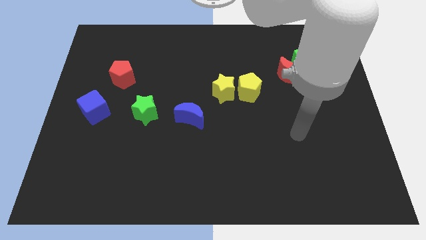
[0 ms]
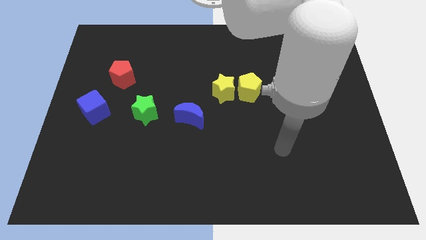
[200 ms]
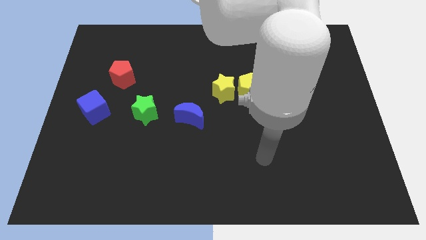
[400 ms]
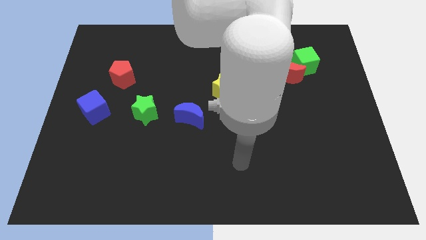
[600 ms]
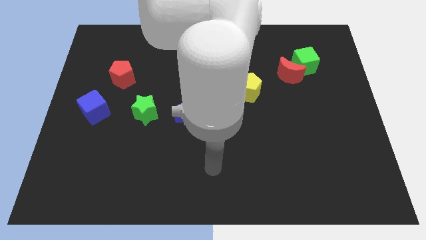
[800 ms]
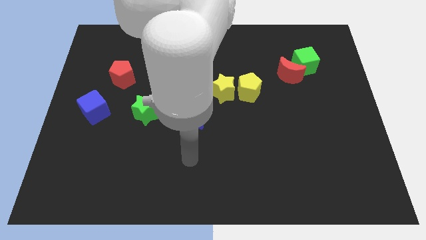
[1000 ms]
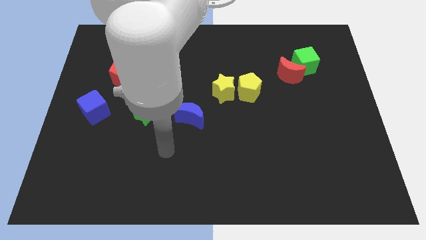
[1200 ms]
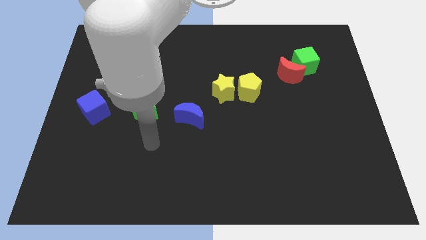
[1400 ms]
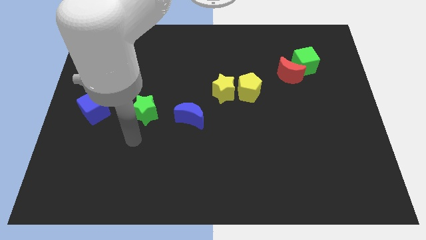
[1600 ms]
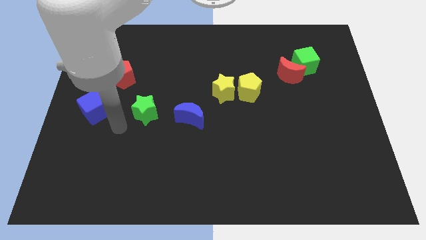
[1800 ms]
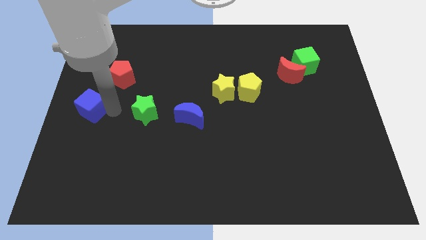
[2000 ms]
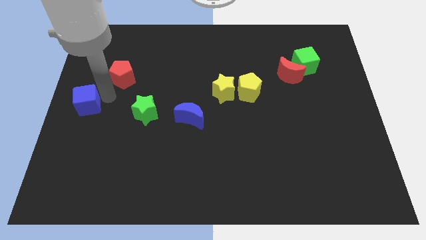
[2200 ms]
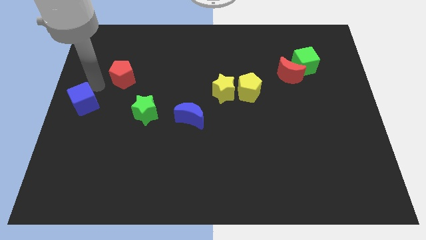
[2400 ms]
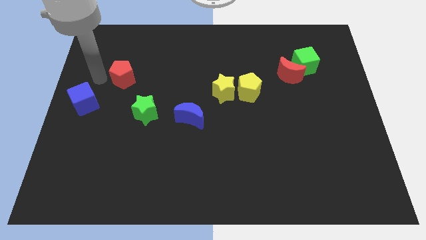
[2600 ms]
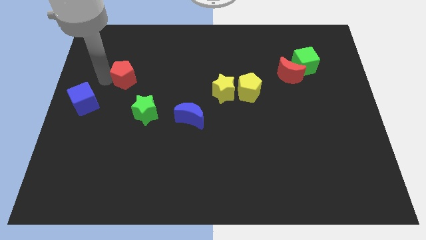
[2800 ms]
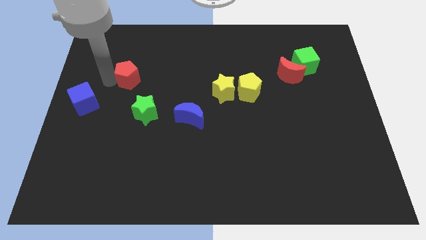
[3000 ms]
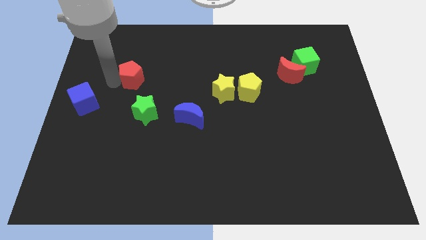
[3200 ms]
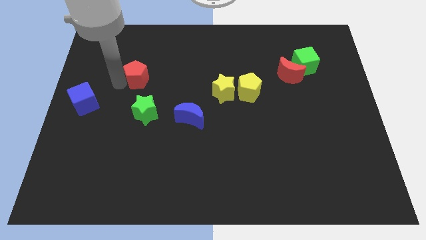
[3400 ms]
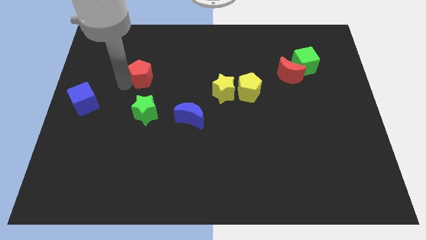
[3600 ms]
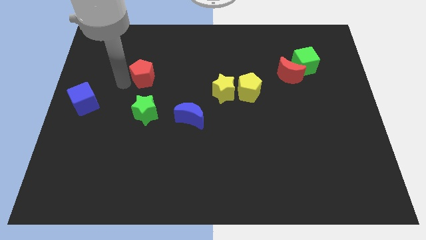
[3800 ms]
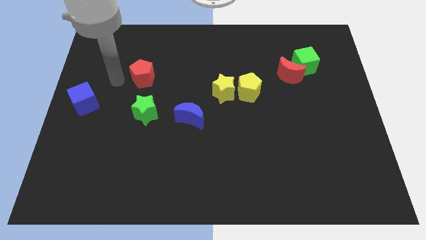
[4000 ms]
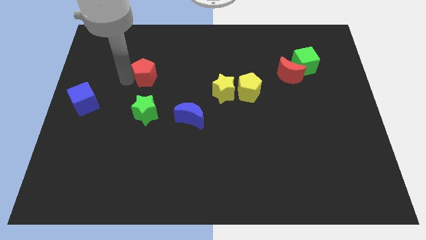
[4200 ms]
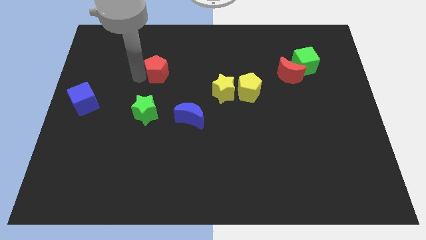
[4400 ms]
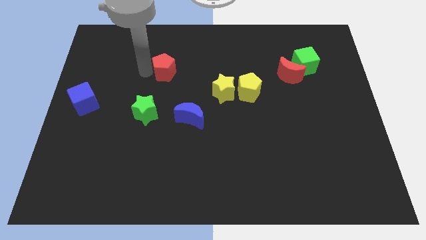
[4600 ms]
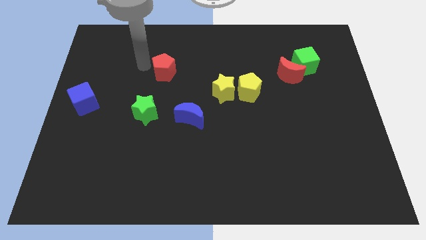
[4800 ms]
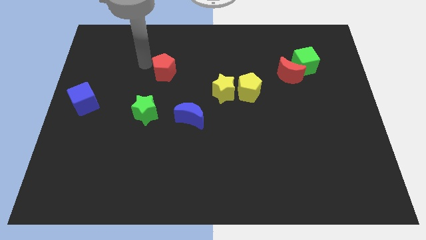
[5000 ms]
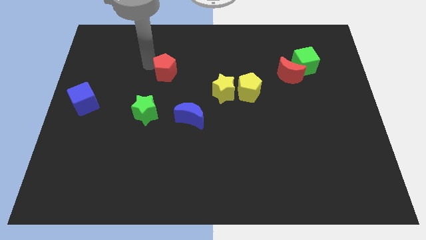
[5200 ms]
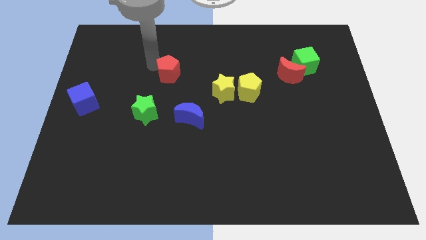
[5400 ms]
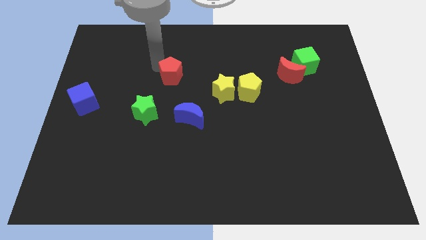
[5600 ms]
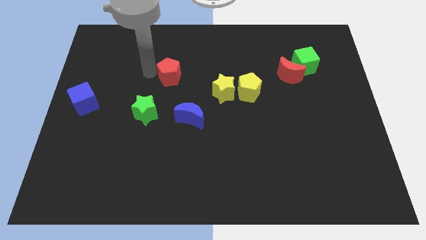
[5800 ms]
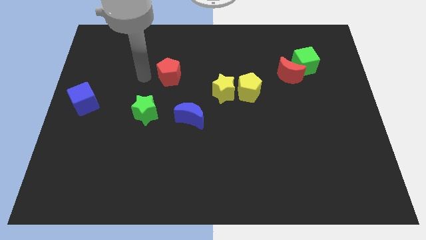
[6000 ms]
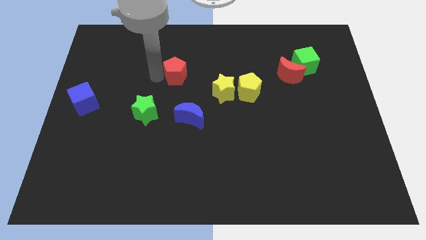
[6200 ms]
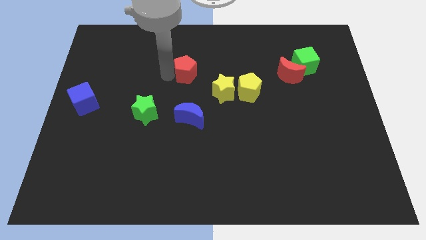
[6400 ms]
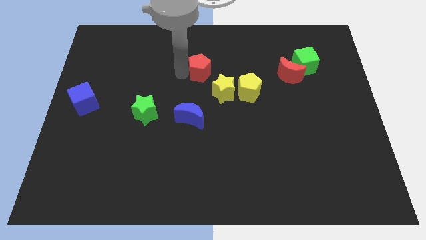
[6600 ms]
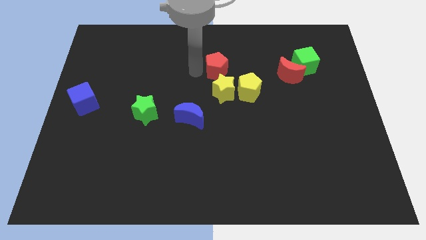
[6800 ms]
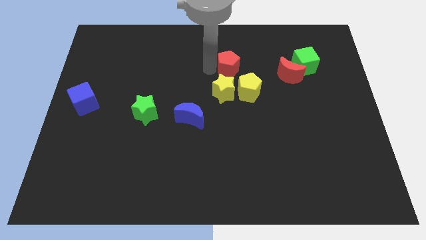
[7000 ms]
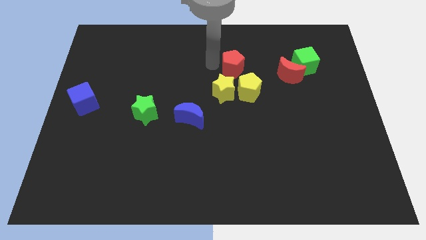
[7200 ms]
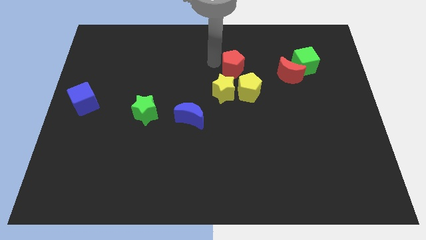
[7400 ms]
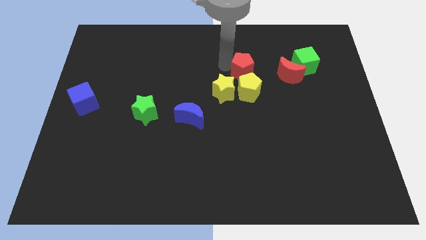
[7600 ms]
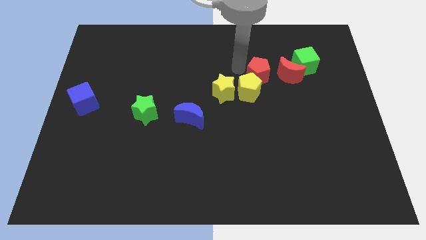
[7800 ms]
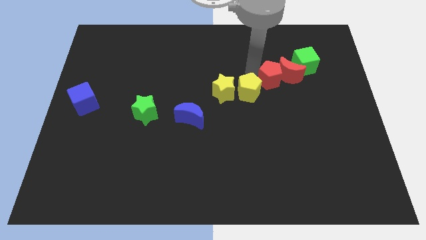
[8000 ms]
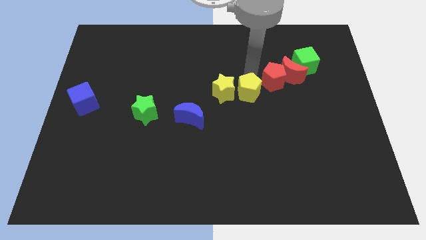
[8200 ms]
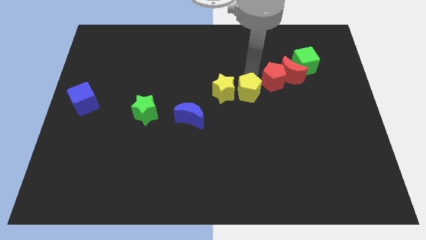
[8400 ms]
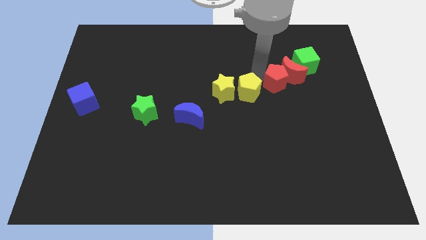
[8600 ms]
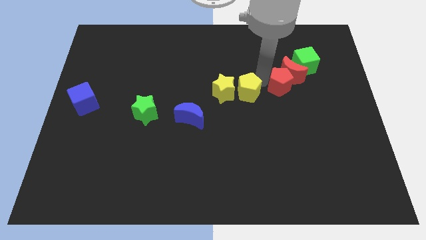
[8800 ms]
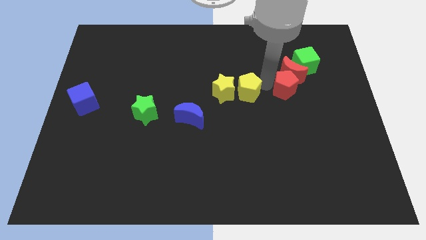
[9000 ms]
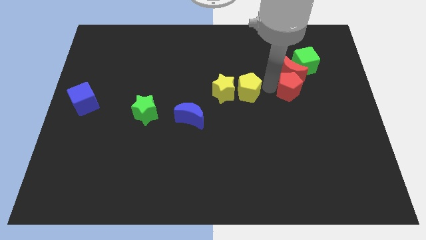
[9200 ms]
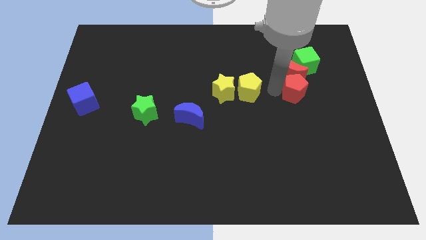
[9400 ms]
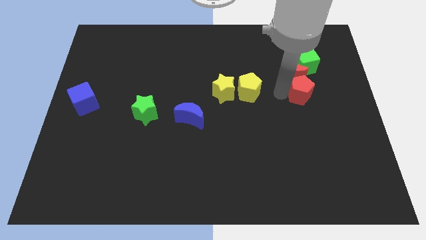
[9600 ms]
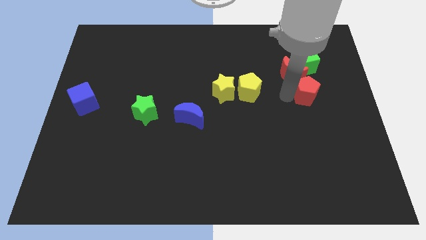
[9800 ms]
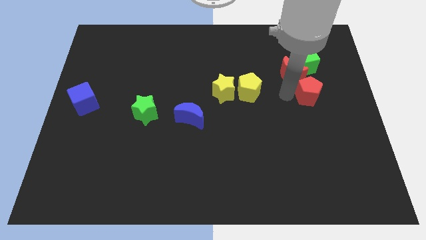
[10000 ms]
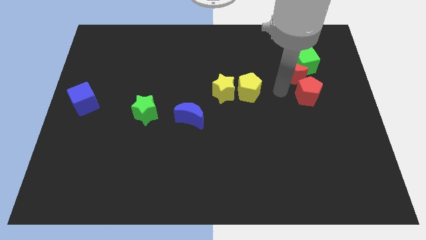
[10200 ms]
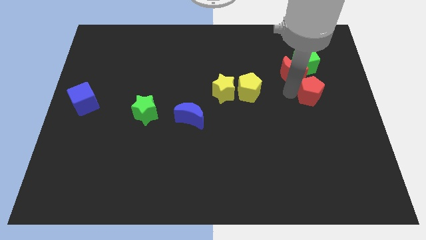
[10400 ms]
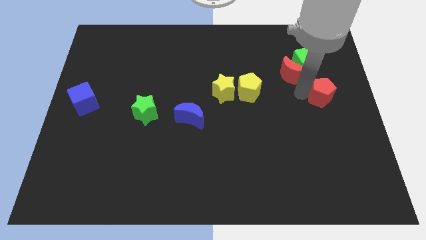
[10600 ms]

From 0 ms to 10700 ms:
push the red pentagon to the right side
